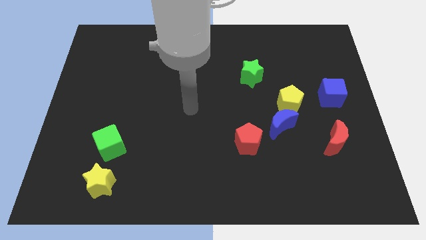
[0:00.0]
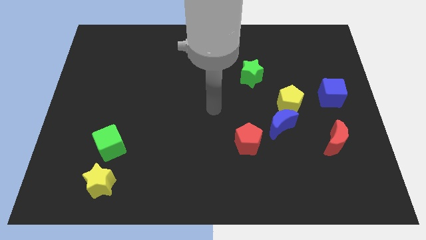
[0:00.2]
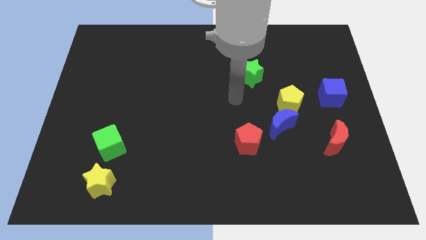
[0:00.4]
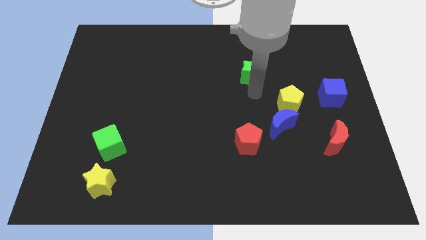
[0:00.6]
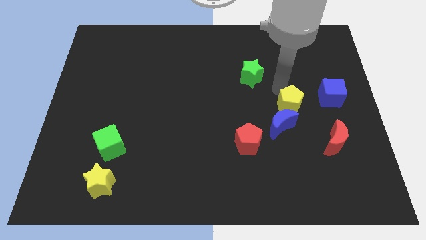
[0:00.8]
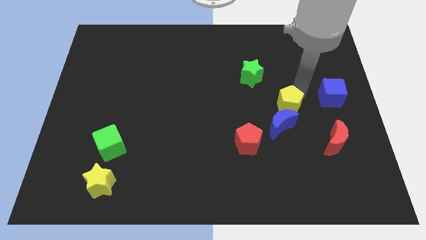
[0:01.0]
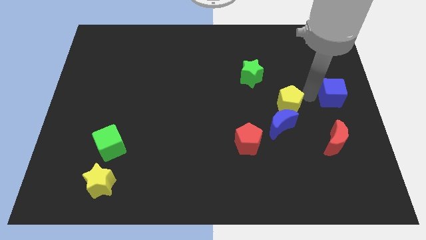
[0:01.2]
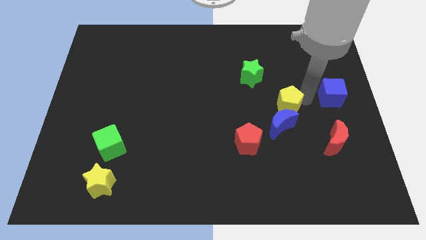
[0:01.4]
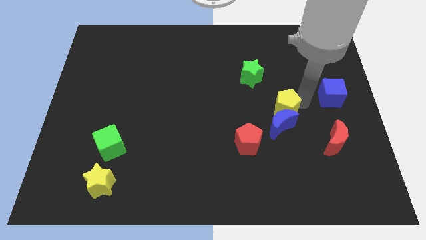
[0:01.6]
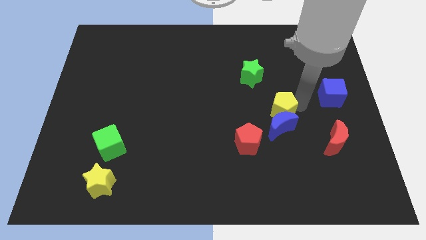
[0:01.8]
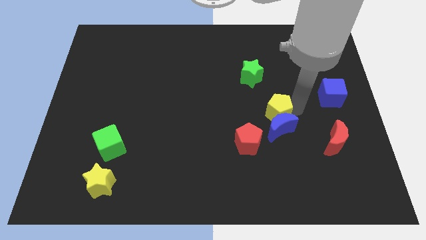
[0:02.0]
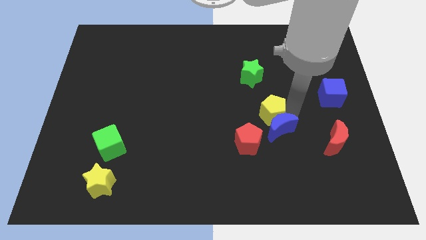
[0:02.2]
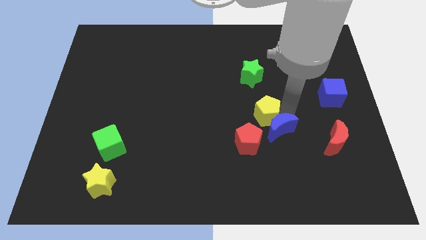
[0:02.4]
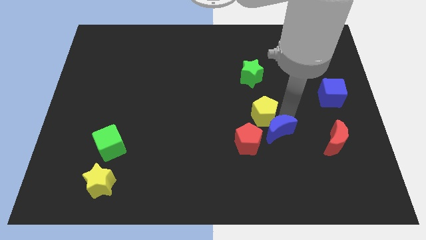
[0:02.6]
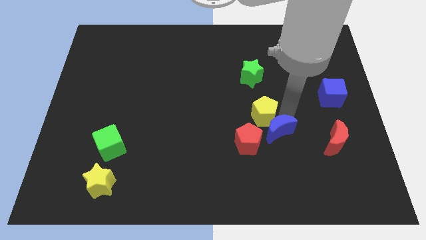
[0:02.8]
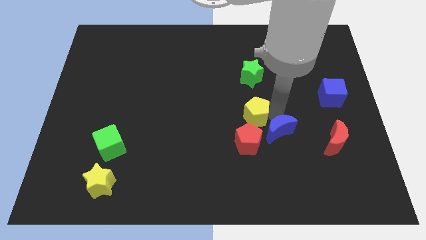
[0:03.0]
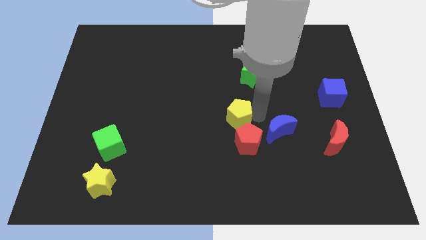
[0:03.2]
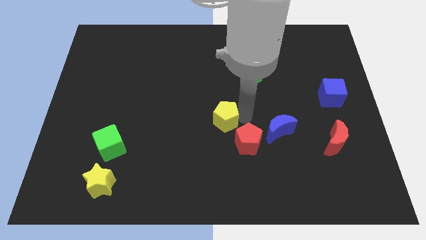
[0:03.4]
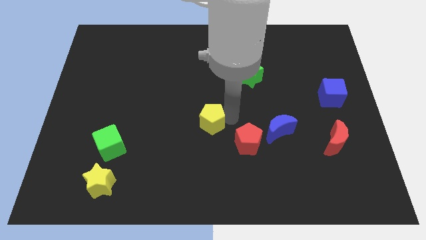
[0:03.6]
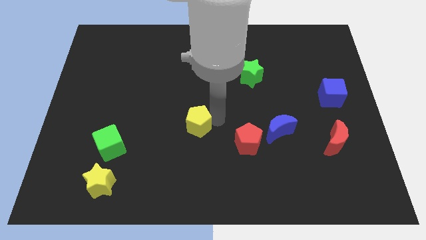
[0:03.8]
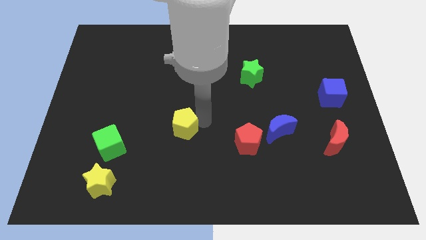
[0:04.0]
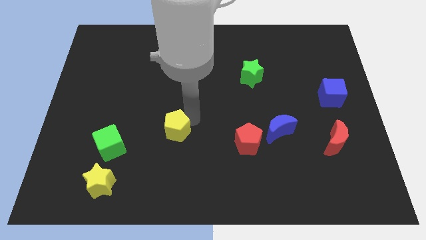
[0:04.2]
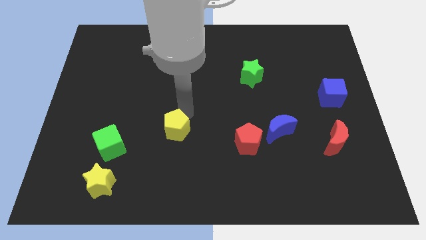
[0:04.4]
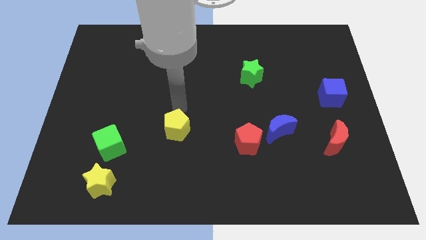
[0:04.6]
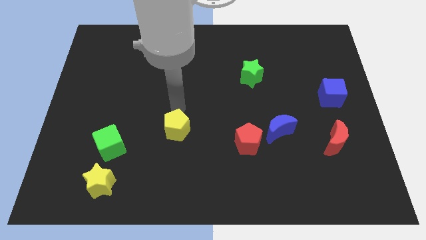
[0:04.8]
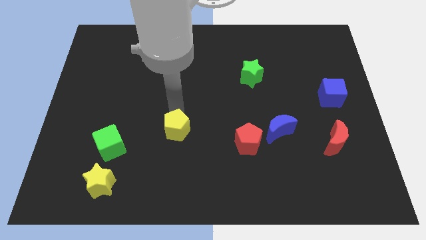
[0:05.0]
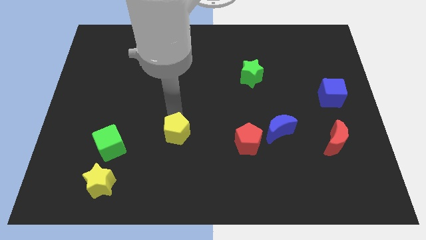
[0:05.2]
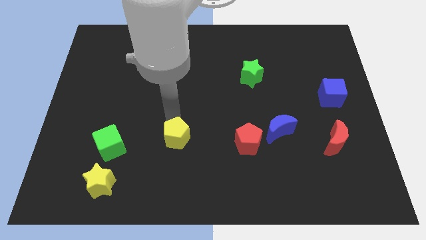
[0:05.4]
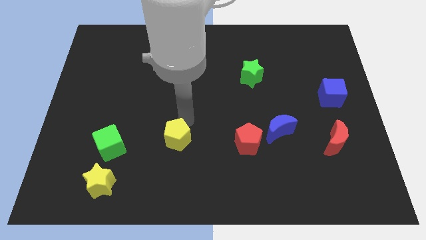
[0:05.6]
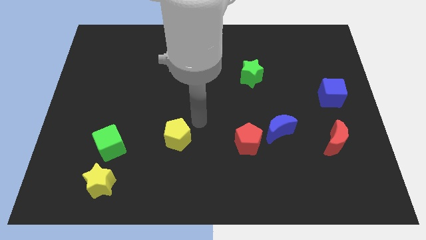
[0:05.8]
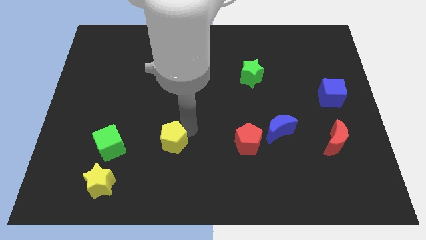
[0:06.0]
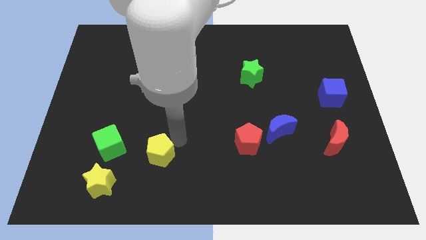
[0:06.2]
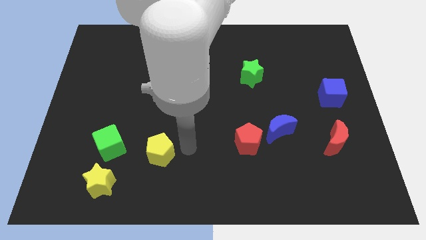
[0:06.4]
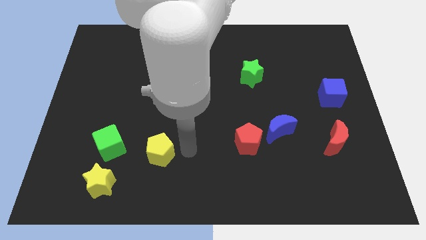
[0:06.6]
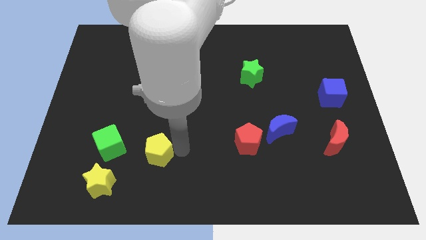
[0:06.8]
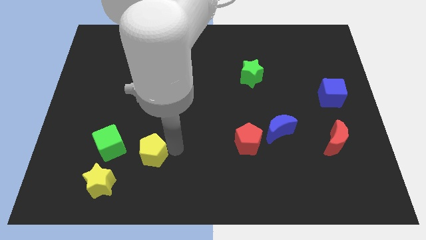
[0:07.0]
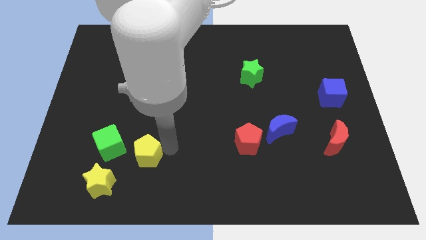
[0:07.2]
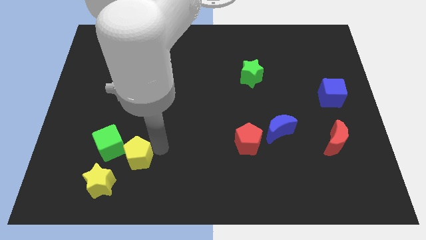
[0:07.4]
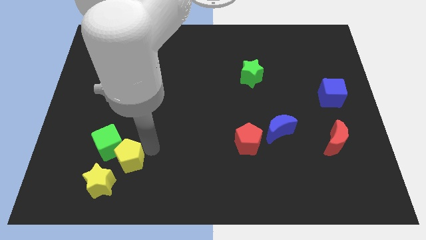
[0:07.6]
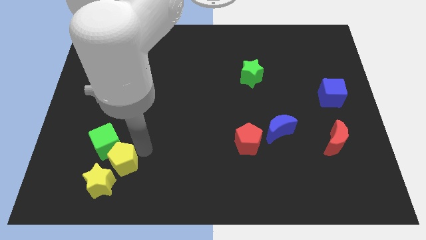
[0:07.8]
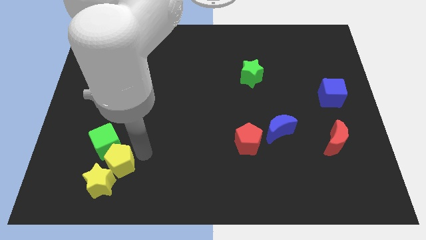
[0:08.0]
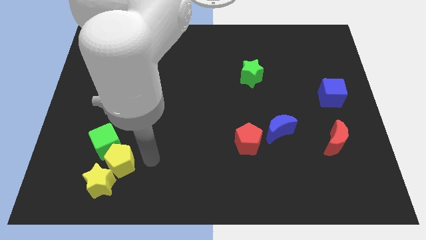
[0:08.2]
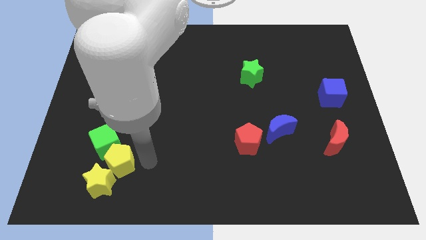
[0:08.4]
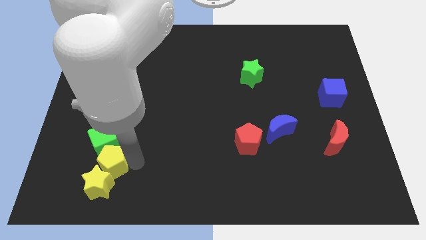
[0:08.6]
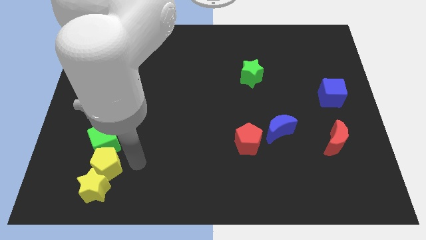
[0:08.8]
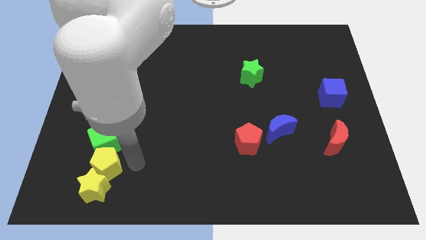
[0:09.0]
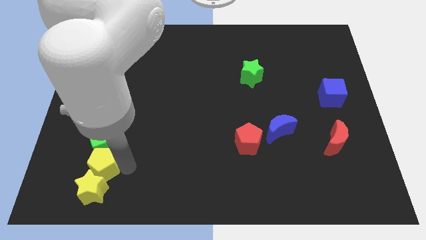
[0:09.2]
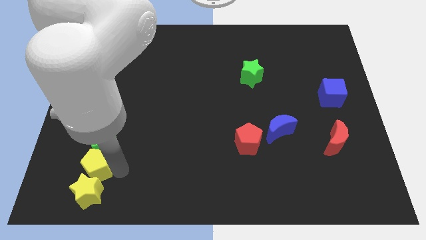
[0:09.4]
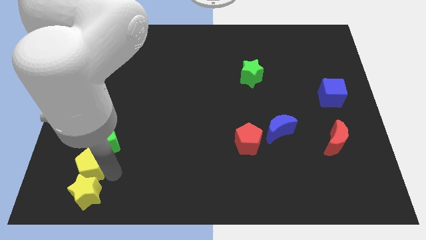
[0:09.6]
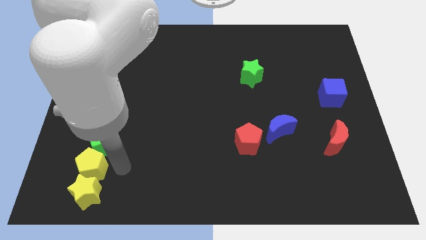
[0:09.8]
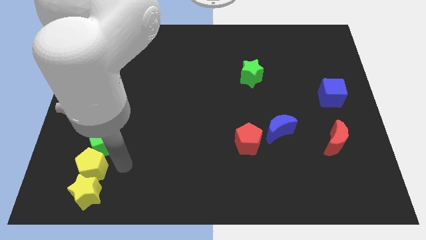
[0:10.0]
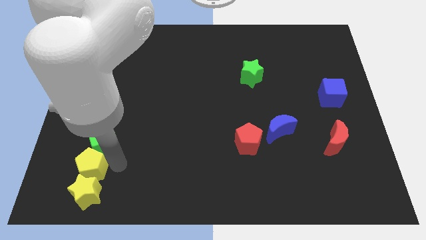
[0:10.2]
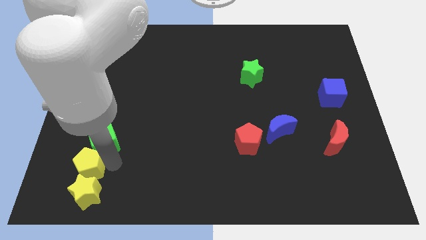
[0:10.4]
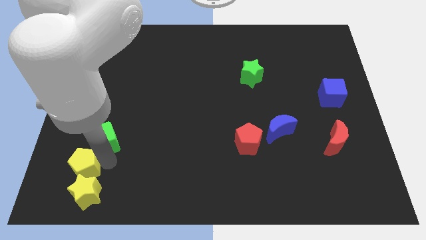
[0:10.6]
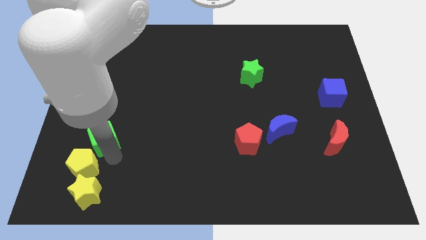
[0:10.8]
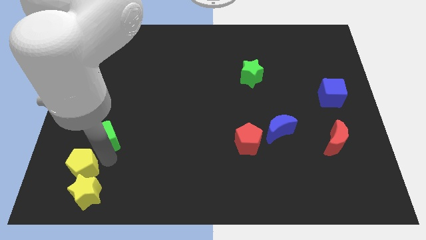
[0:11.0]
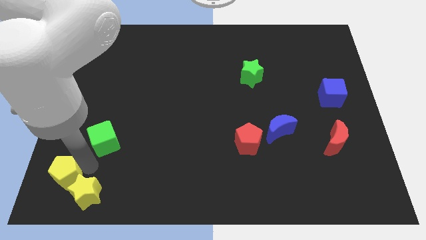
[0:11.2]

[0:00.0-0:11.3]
slide the yellow pentagon to the bottom left
